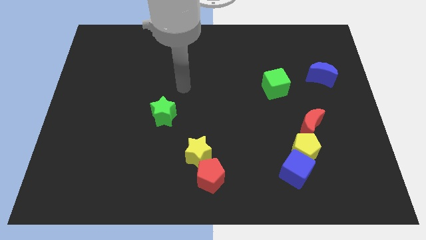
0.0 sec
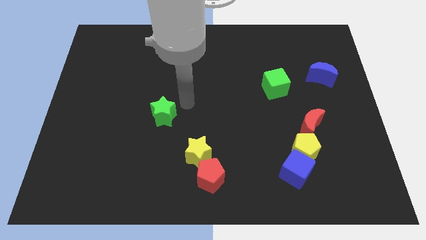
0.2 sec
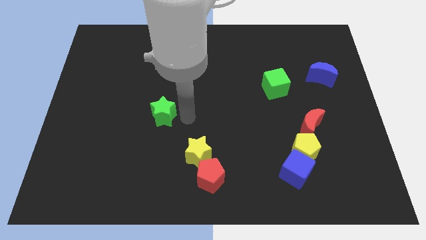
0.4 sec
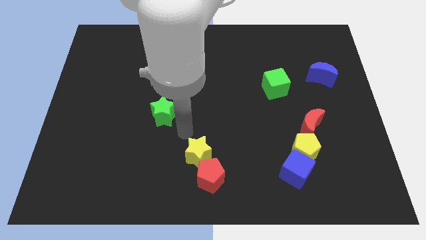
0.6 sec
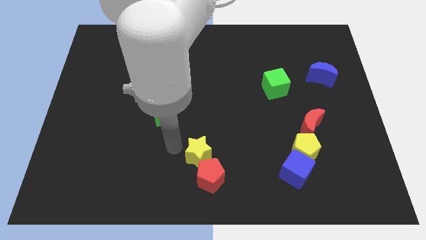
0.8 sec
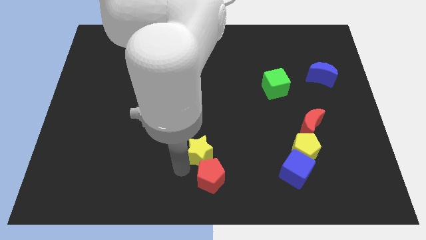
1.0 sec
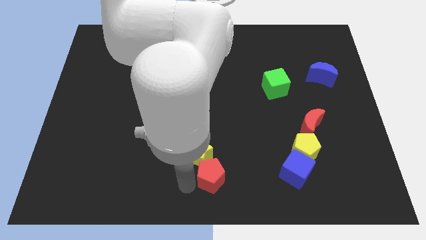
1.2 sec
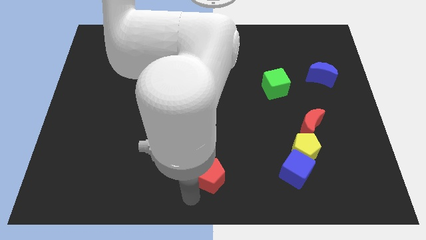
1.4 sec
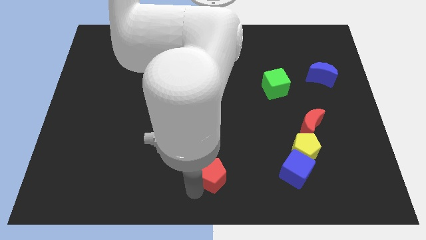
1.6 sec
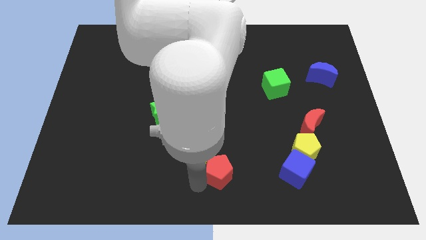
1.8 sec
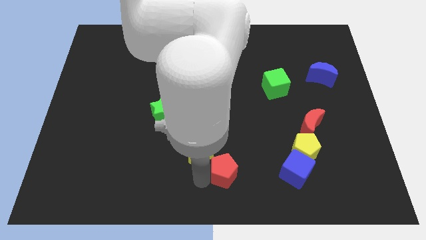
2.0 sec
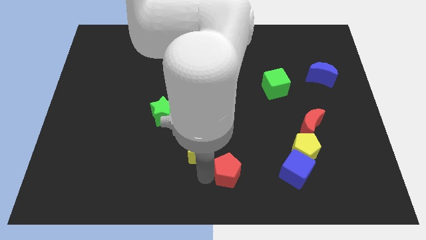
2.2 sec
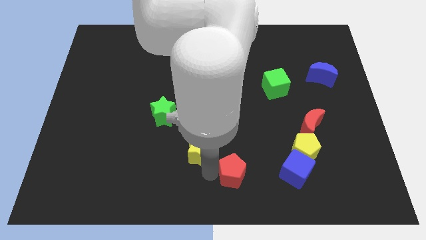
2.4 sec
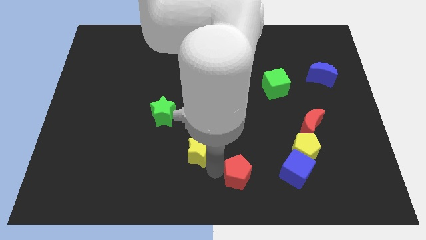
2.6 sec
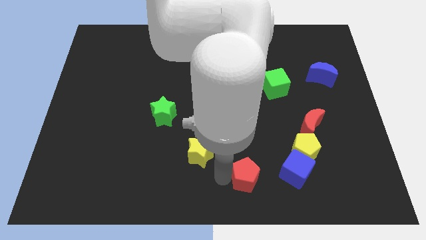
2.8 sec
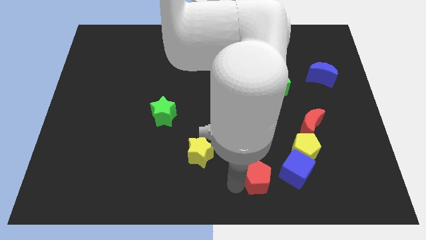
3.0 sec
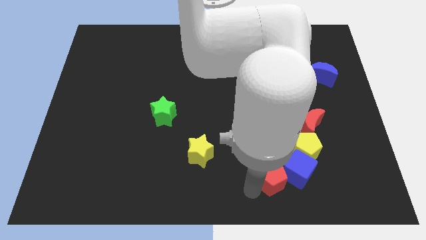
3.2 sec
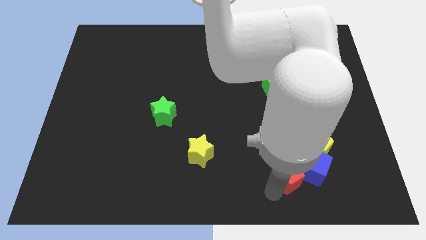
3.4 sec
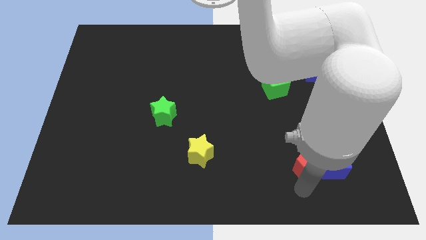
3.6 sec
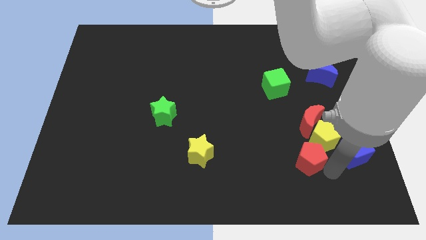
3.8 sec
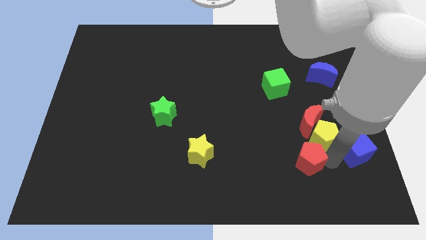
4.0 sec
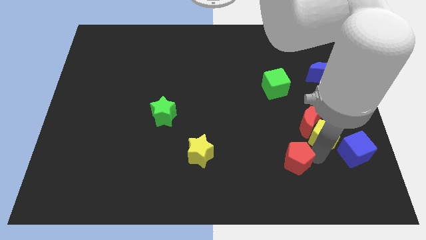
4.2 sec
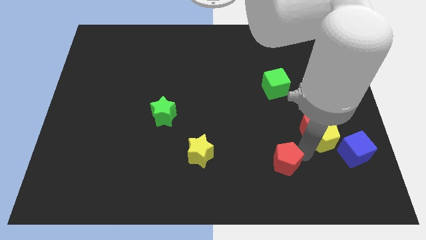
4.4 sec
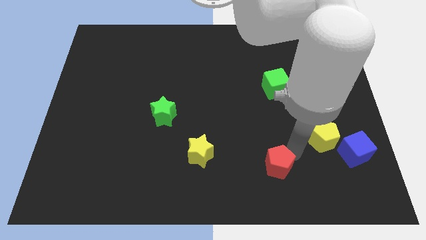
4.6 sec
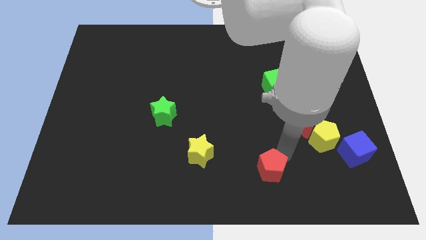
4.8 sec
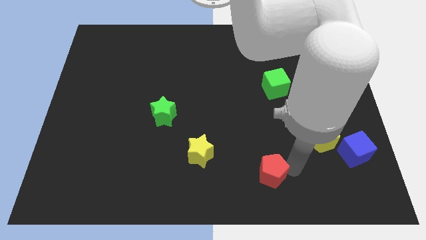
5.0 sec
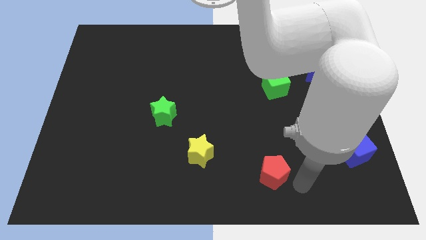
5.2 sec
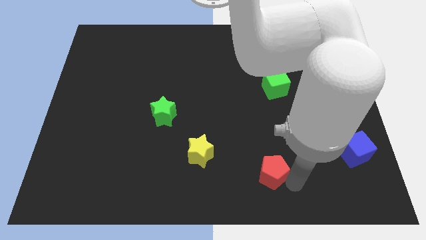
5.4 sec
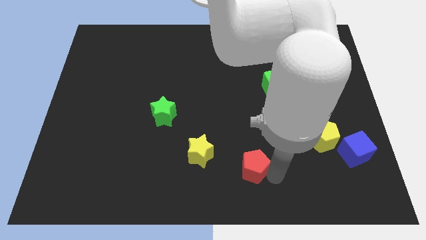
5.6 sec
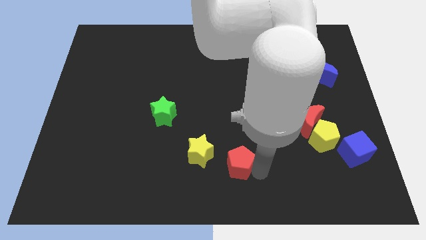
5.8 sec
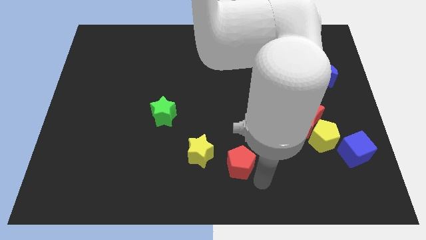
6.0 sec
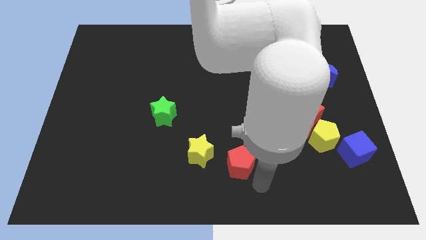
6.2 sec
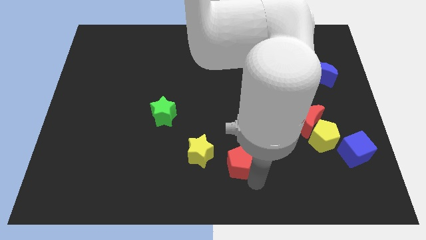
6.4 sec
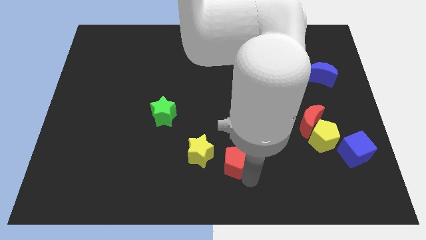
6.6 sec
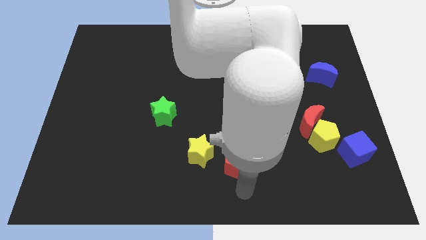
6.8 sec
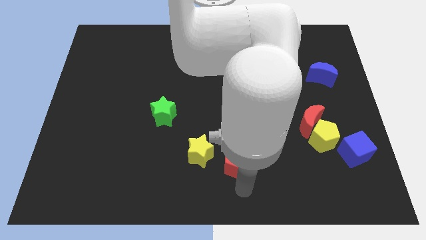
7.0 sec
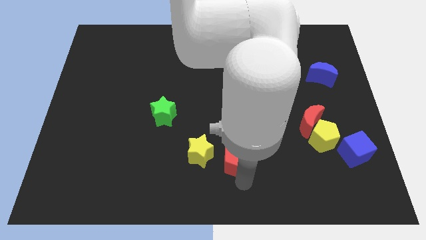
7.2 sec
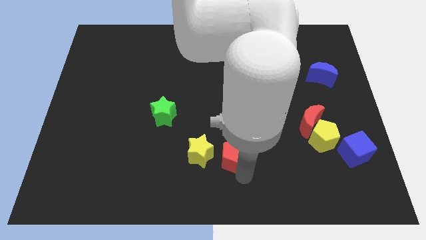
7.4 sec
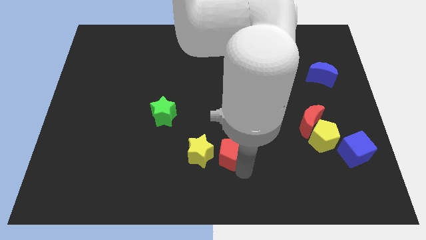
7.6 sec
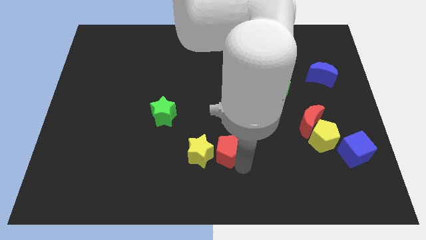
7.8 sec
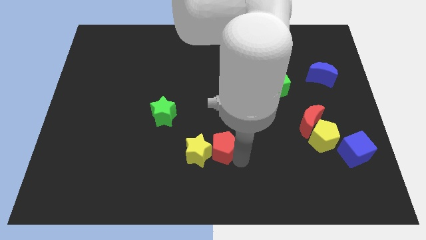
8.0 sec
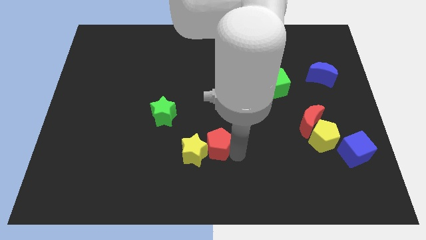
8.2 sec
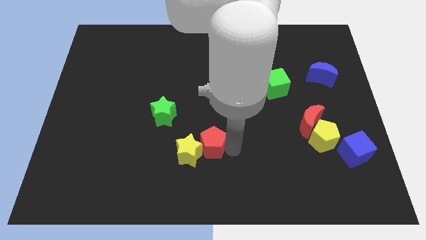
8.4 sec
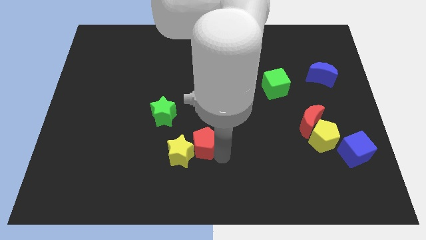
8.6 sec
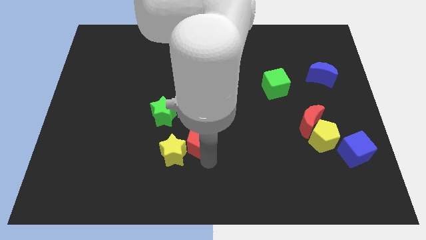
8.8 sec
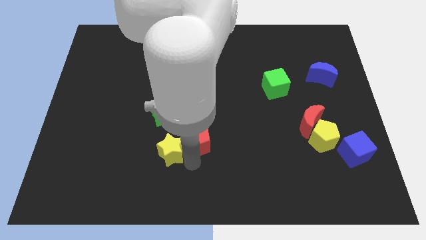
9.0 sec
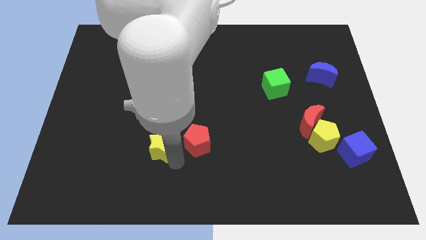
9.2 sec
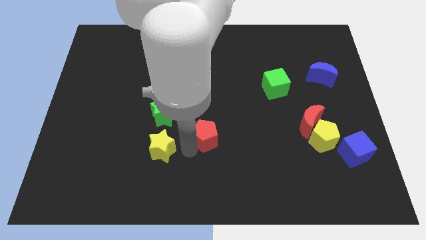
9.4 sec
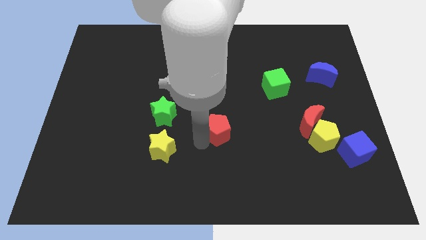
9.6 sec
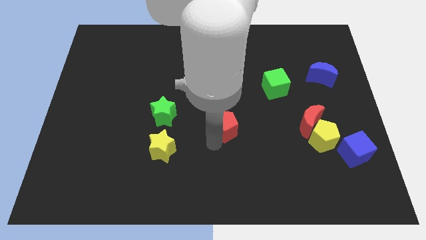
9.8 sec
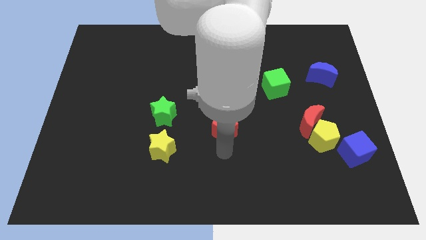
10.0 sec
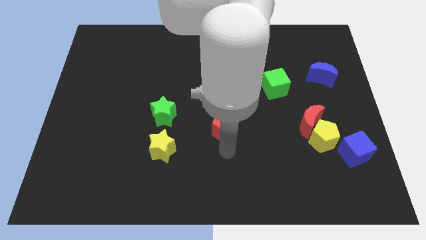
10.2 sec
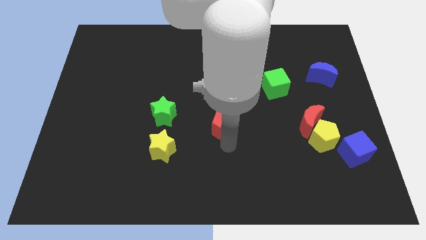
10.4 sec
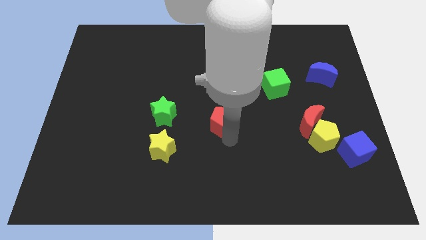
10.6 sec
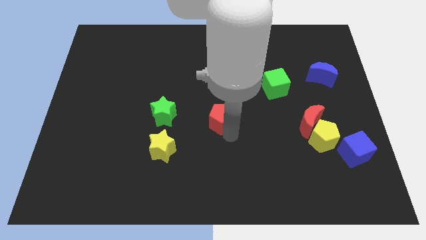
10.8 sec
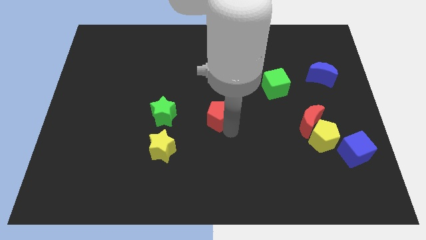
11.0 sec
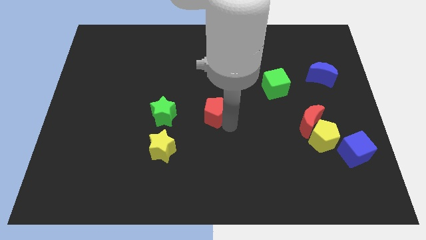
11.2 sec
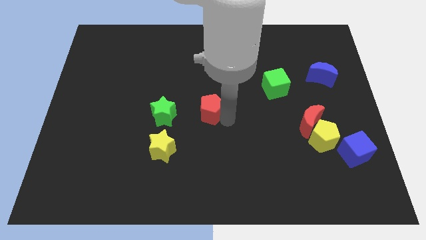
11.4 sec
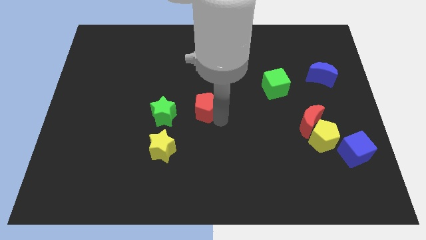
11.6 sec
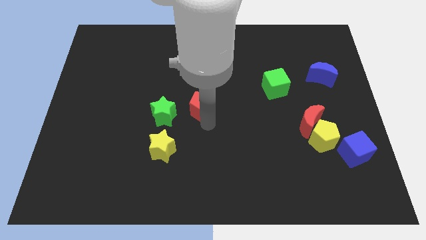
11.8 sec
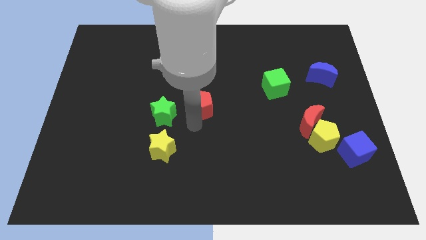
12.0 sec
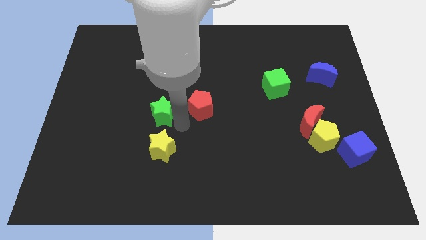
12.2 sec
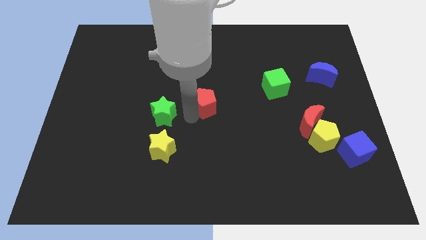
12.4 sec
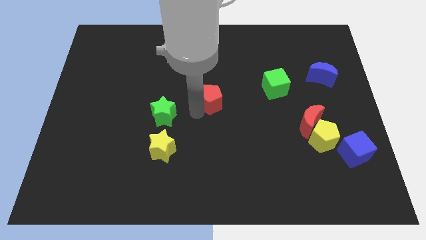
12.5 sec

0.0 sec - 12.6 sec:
slide the red pentagon upwards

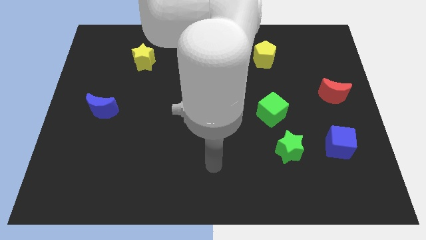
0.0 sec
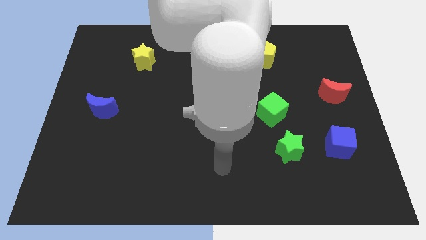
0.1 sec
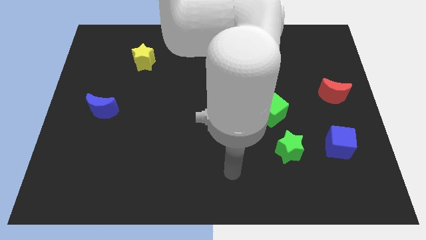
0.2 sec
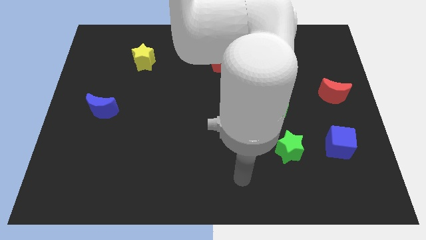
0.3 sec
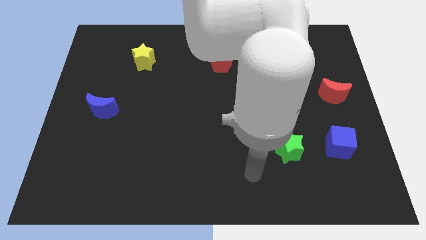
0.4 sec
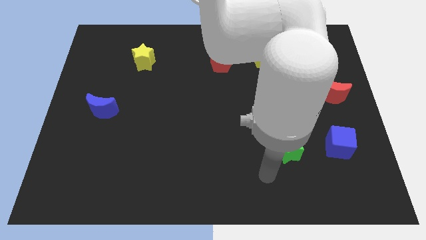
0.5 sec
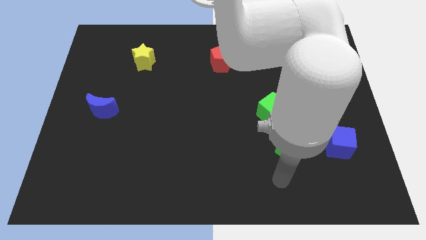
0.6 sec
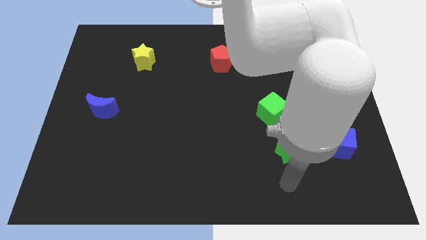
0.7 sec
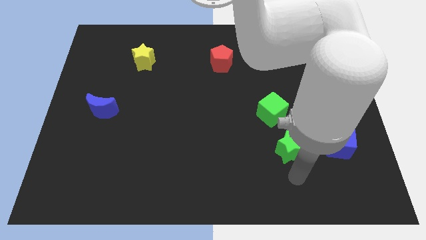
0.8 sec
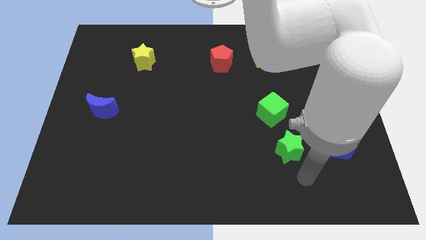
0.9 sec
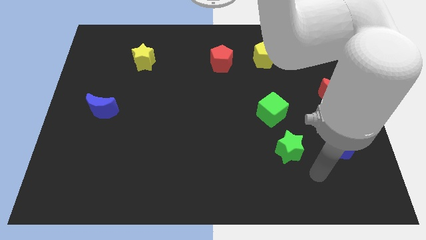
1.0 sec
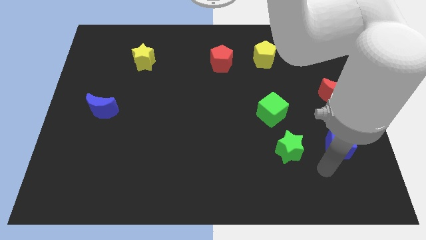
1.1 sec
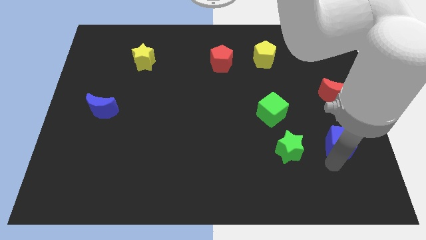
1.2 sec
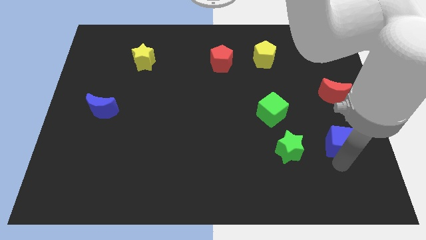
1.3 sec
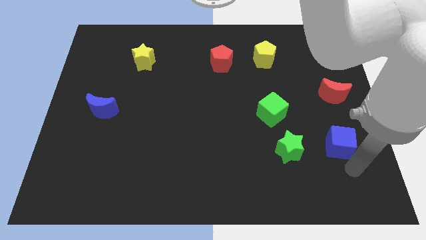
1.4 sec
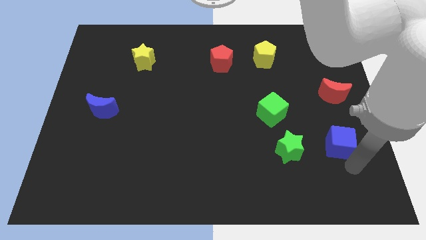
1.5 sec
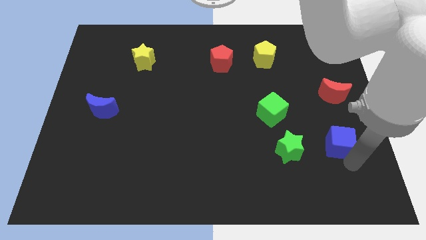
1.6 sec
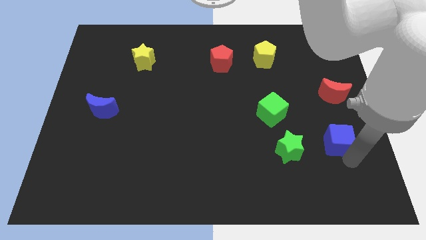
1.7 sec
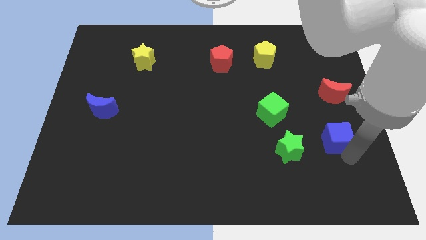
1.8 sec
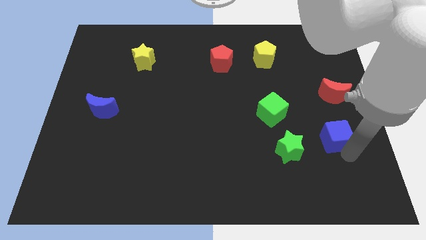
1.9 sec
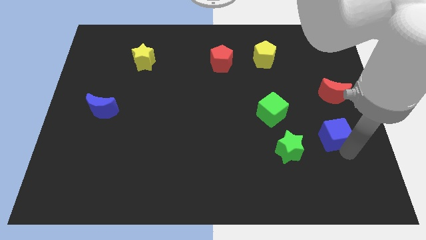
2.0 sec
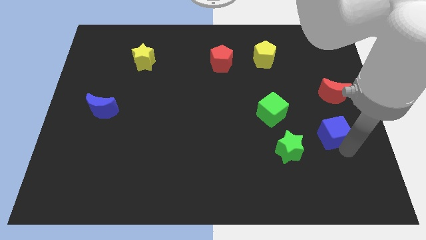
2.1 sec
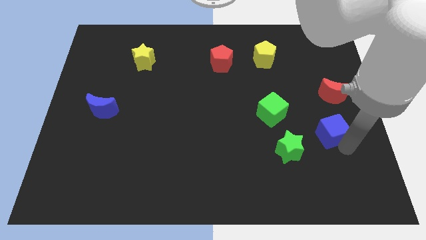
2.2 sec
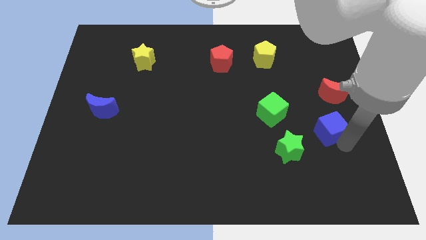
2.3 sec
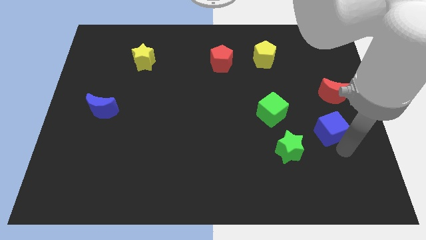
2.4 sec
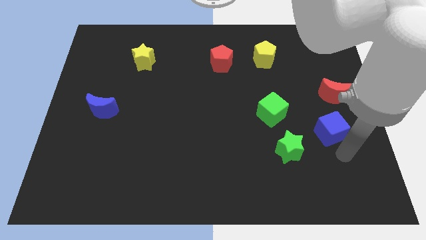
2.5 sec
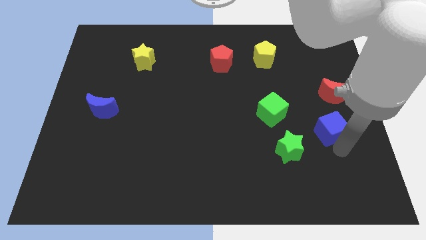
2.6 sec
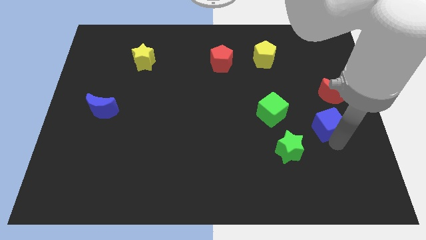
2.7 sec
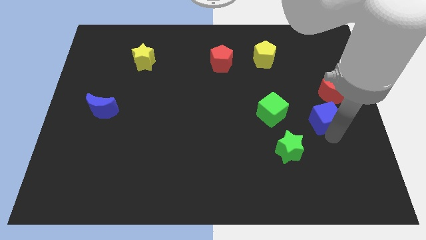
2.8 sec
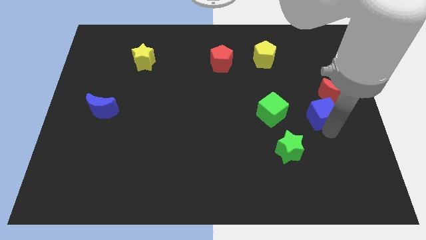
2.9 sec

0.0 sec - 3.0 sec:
slightly push the blue cube up
